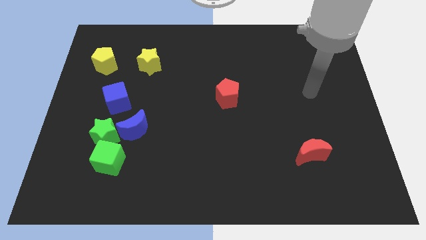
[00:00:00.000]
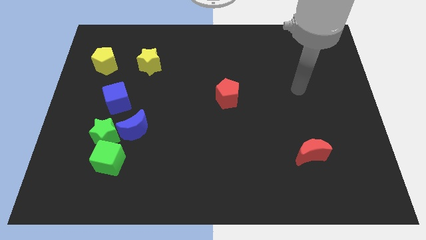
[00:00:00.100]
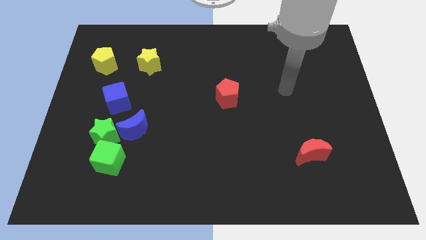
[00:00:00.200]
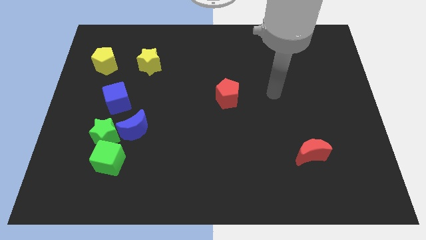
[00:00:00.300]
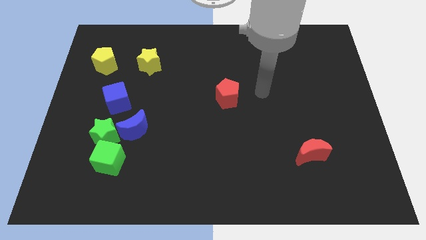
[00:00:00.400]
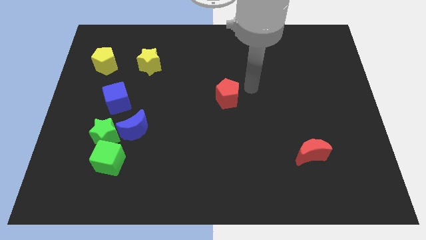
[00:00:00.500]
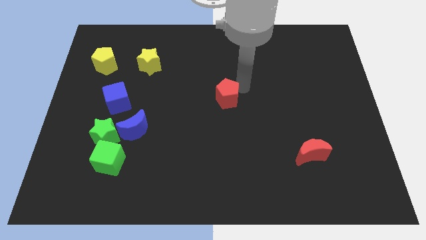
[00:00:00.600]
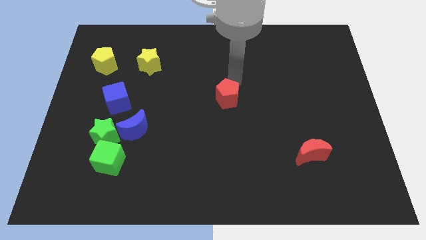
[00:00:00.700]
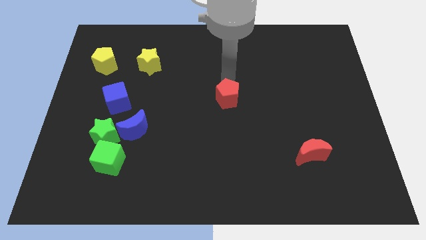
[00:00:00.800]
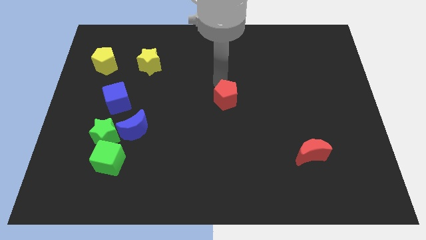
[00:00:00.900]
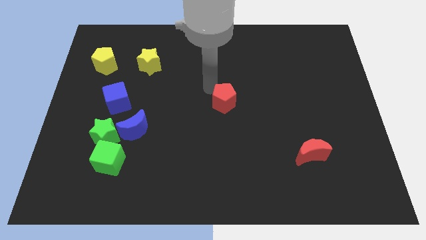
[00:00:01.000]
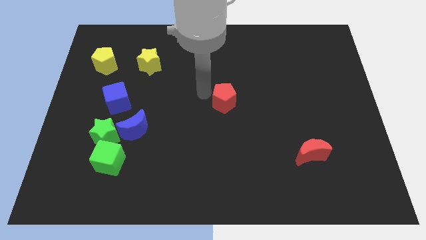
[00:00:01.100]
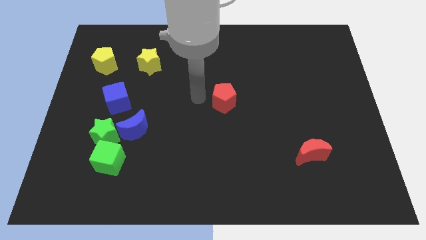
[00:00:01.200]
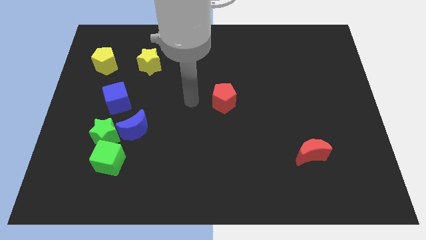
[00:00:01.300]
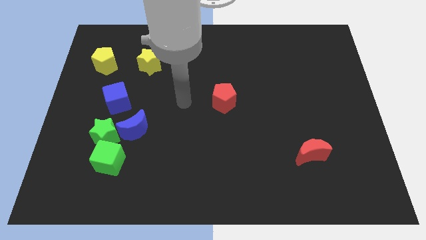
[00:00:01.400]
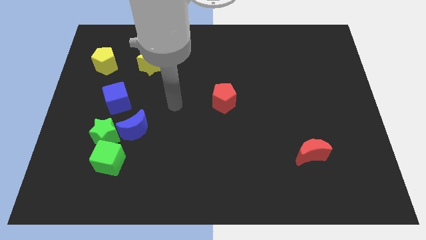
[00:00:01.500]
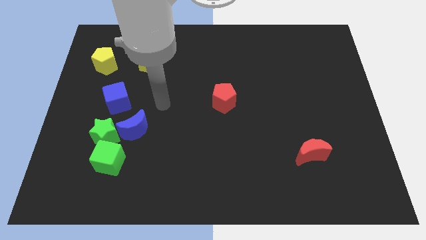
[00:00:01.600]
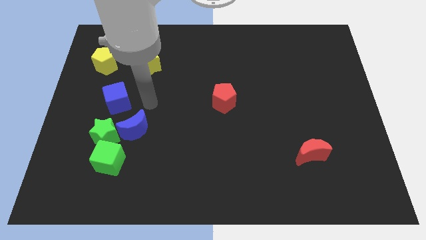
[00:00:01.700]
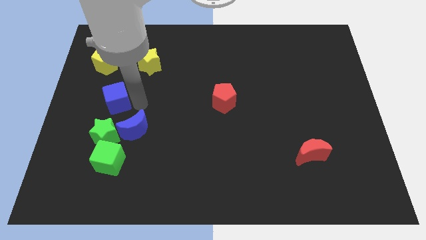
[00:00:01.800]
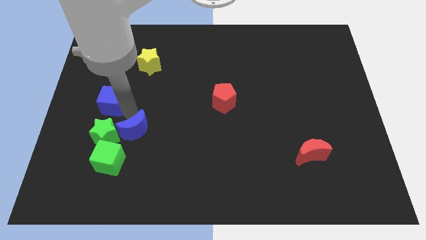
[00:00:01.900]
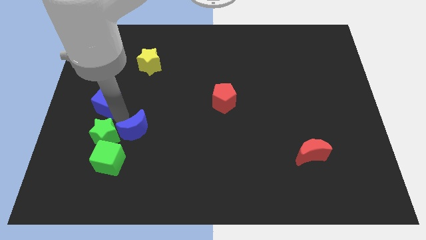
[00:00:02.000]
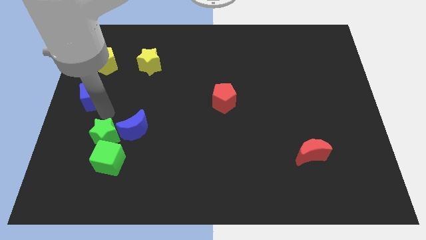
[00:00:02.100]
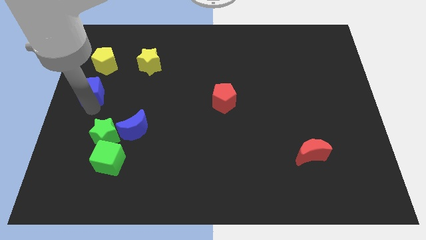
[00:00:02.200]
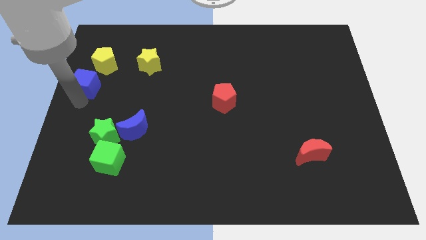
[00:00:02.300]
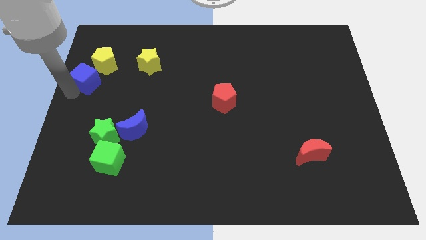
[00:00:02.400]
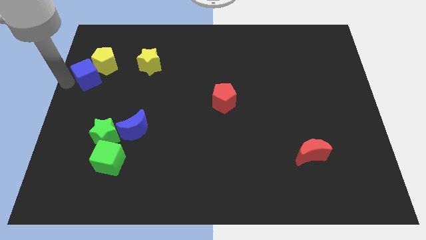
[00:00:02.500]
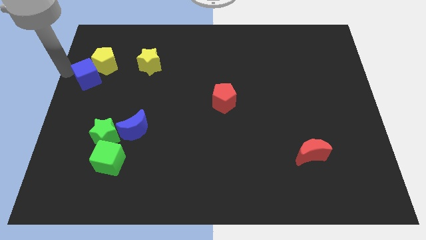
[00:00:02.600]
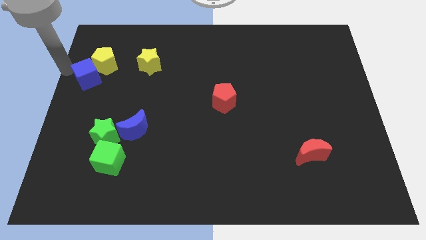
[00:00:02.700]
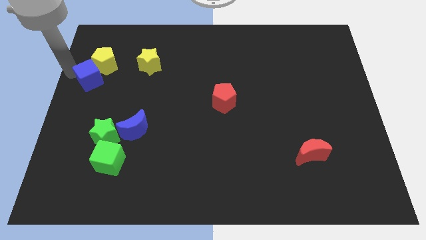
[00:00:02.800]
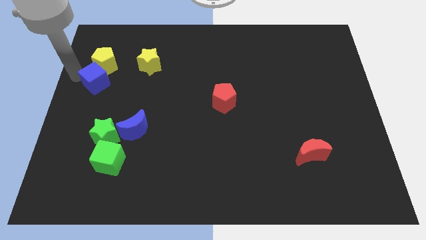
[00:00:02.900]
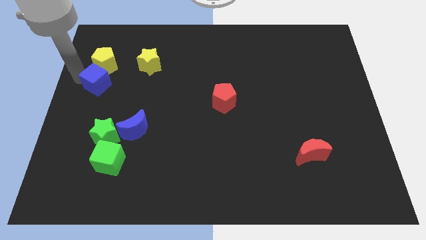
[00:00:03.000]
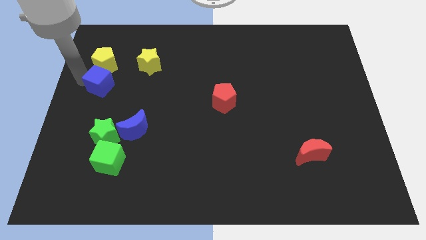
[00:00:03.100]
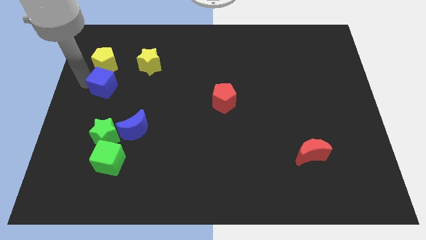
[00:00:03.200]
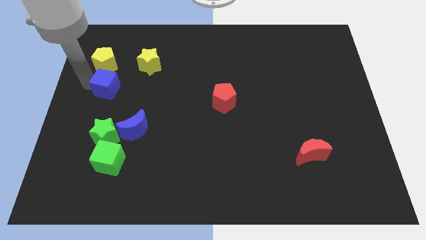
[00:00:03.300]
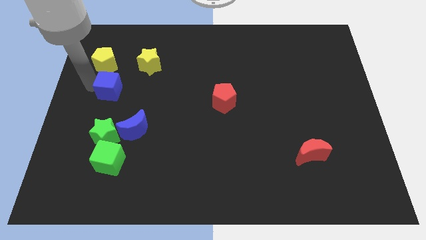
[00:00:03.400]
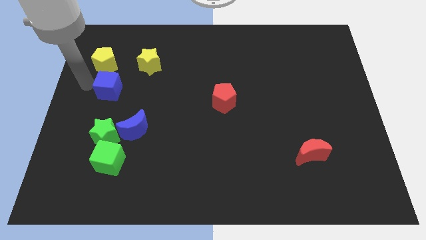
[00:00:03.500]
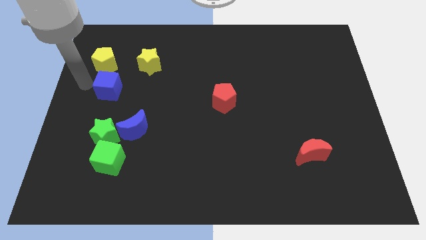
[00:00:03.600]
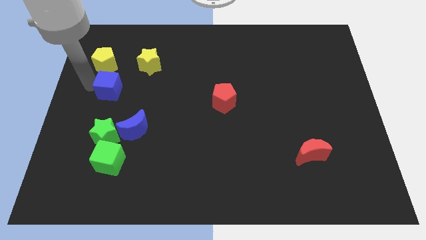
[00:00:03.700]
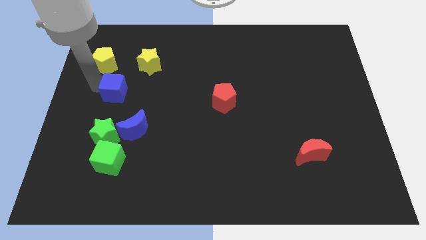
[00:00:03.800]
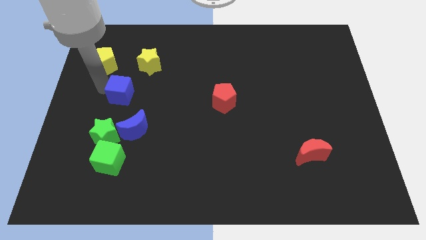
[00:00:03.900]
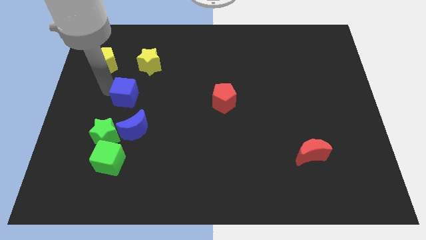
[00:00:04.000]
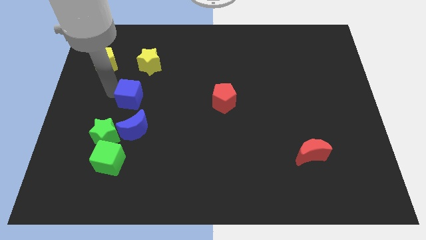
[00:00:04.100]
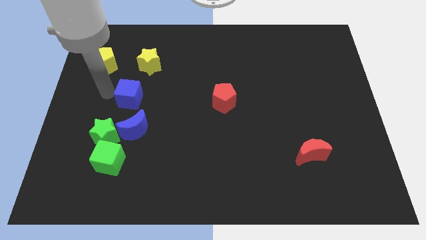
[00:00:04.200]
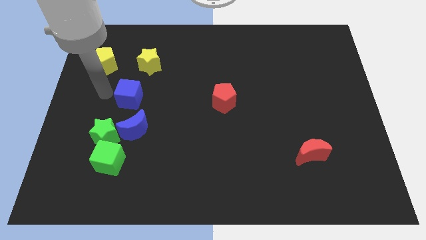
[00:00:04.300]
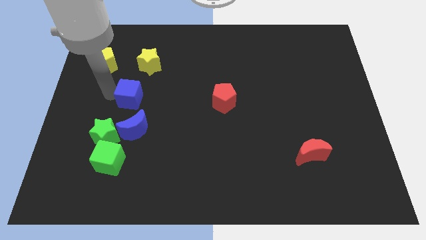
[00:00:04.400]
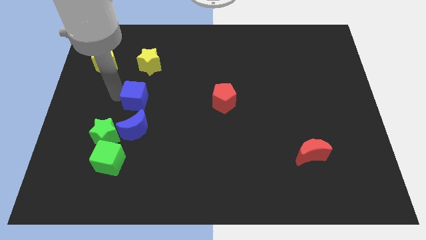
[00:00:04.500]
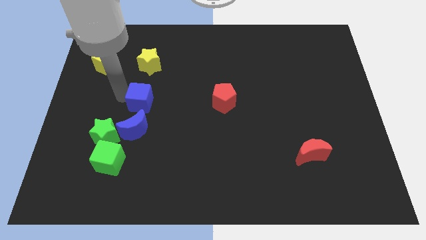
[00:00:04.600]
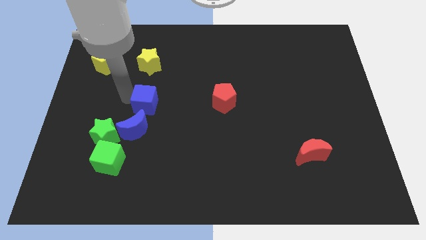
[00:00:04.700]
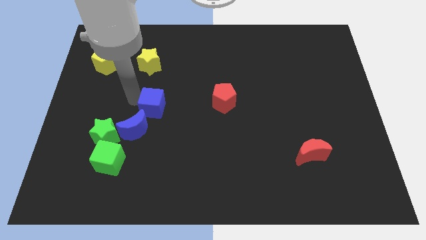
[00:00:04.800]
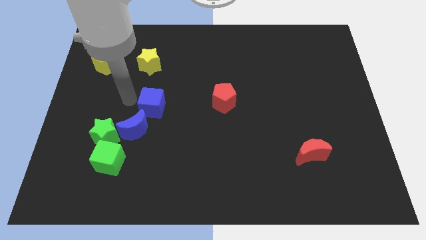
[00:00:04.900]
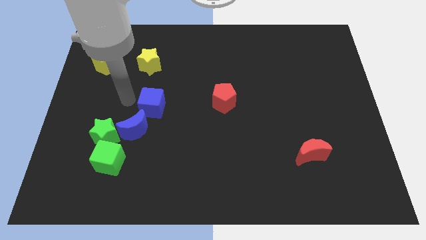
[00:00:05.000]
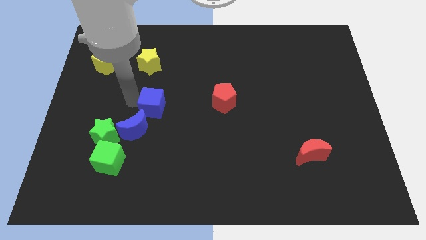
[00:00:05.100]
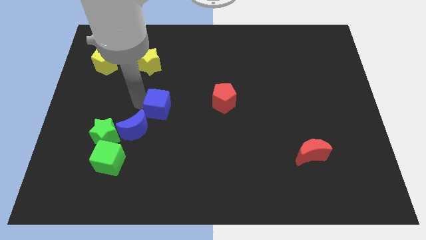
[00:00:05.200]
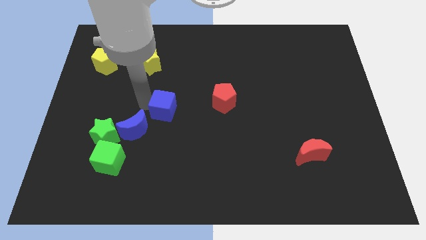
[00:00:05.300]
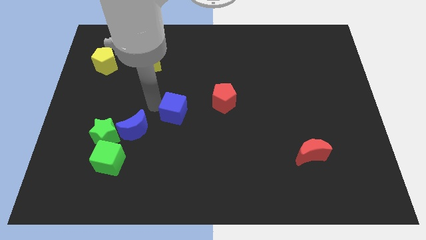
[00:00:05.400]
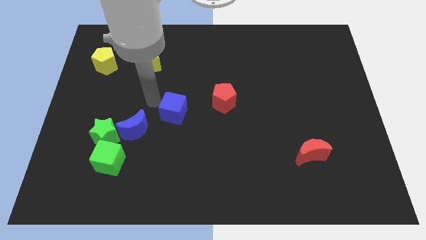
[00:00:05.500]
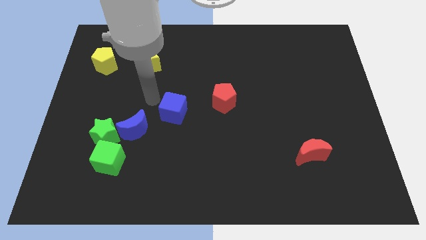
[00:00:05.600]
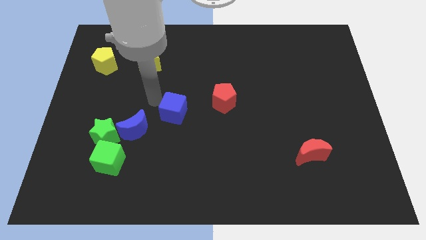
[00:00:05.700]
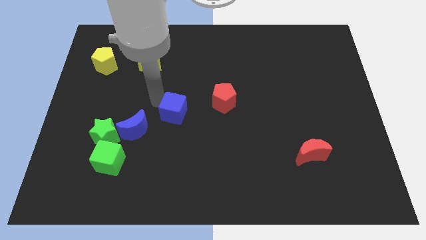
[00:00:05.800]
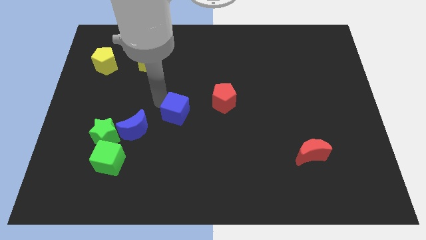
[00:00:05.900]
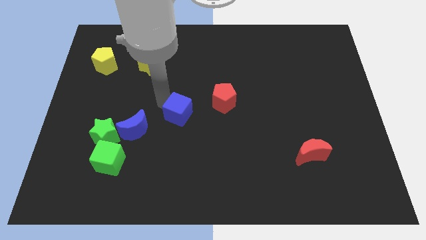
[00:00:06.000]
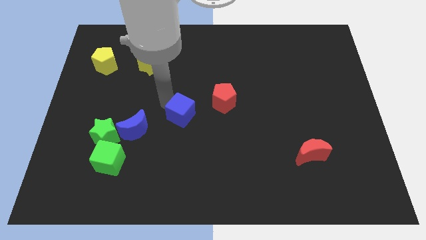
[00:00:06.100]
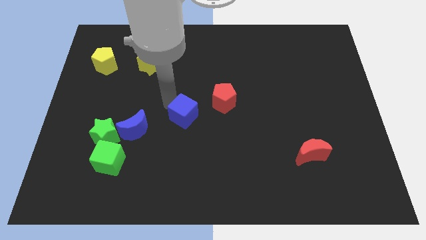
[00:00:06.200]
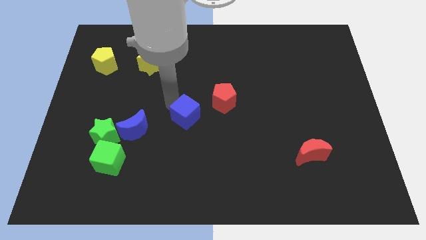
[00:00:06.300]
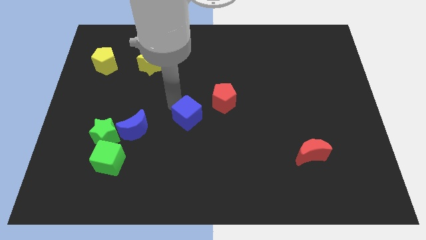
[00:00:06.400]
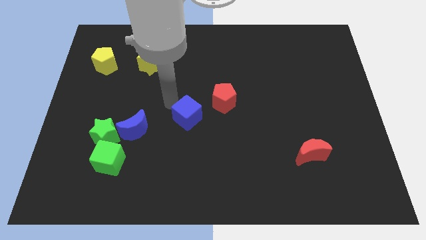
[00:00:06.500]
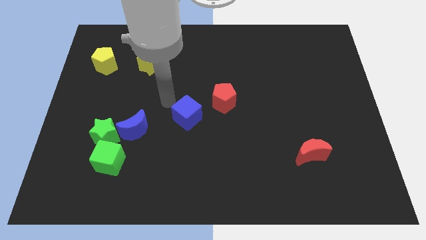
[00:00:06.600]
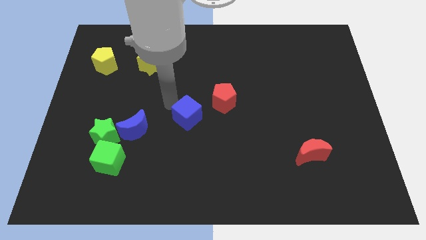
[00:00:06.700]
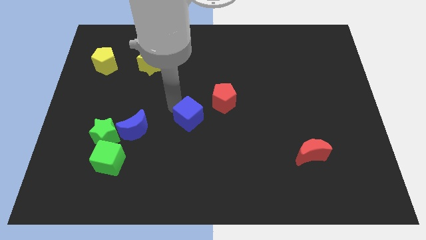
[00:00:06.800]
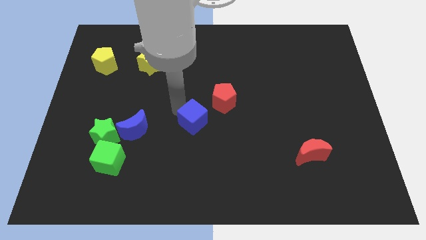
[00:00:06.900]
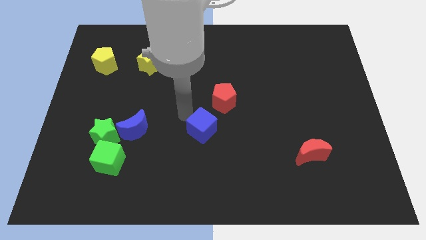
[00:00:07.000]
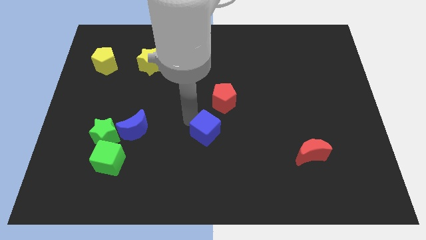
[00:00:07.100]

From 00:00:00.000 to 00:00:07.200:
move the blue cube below the red pentagon
